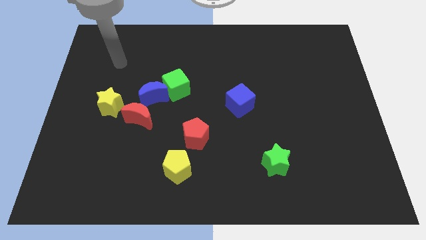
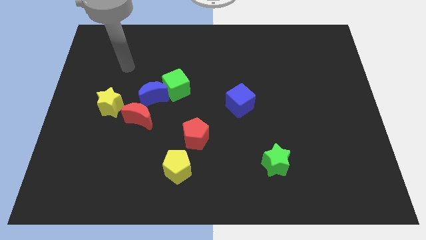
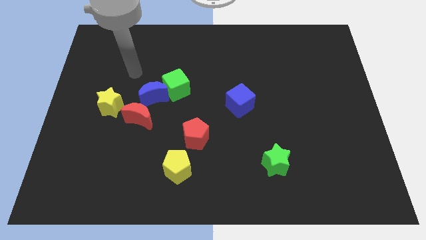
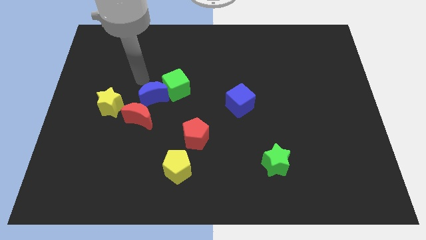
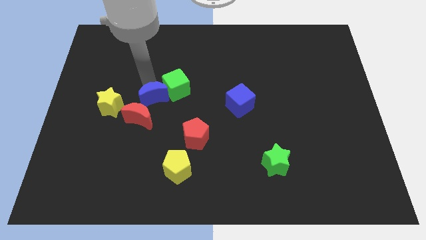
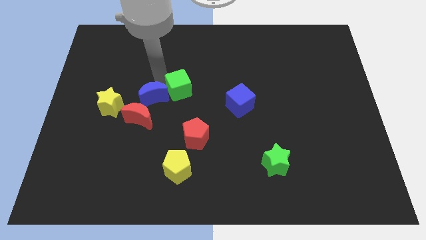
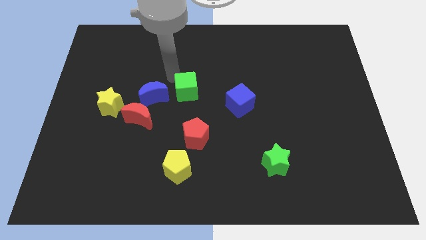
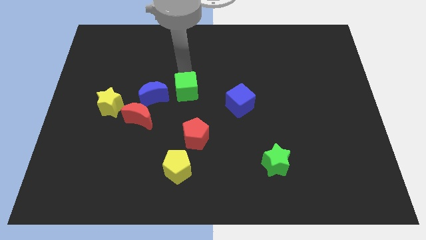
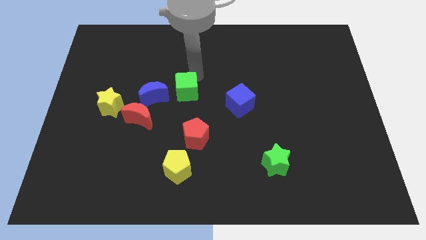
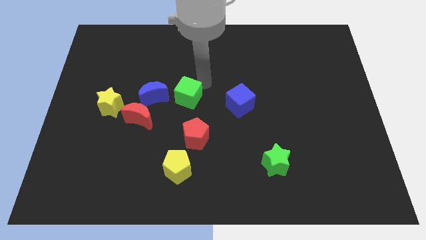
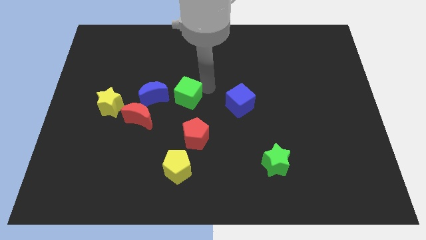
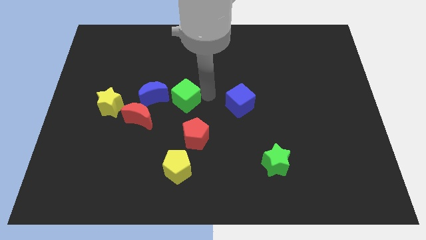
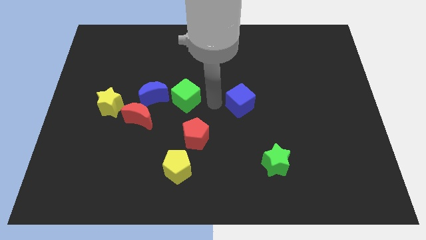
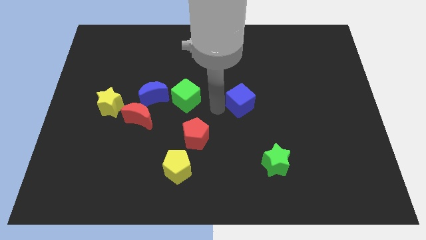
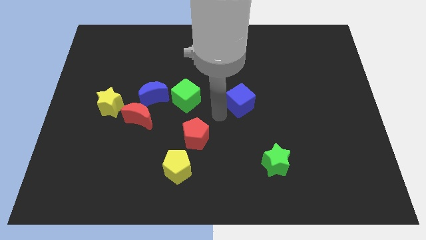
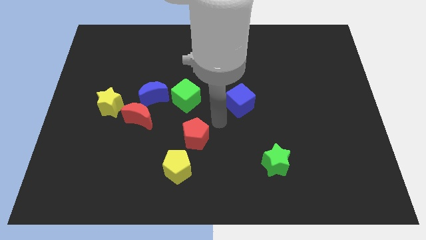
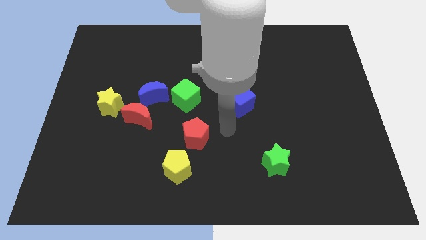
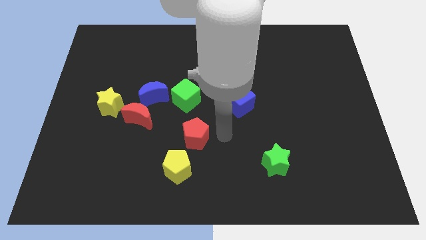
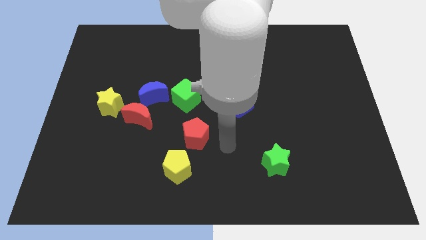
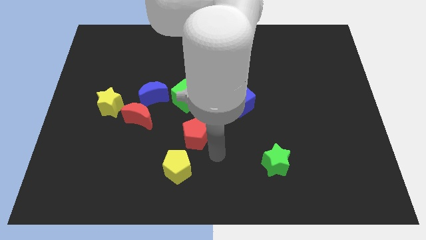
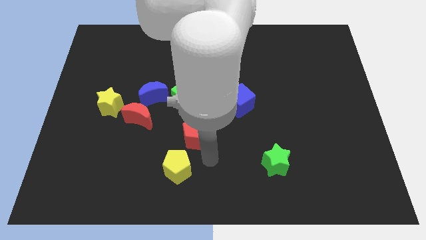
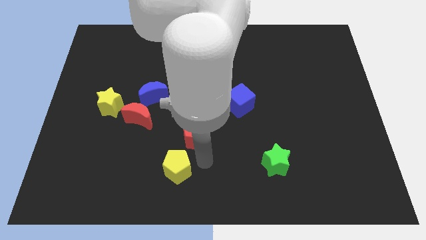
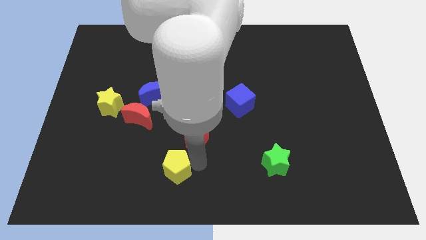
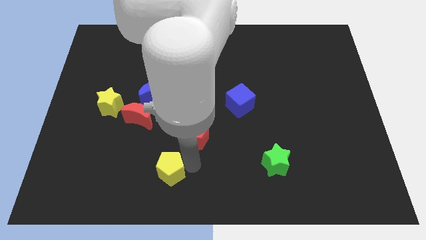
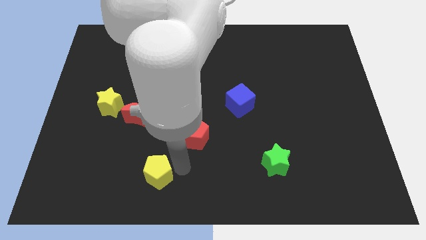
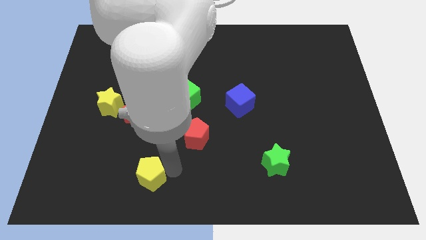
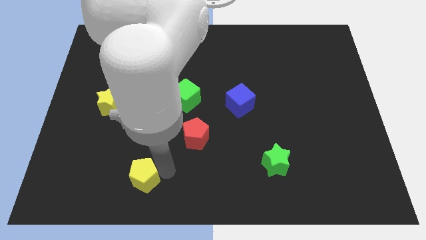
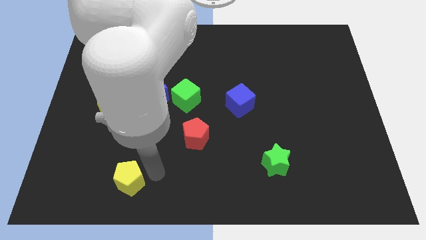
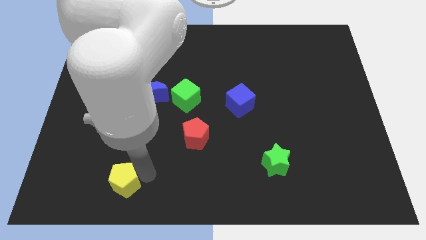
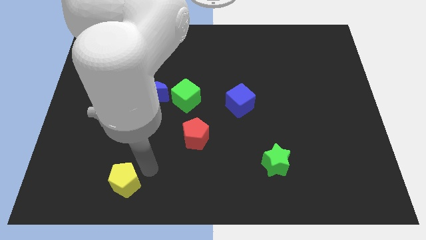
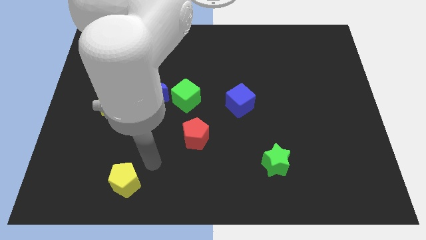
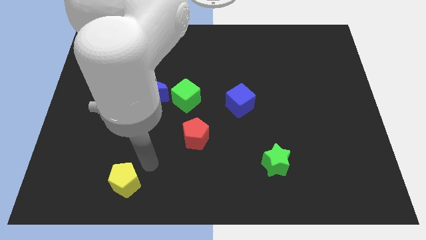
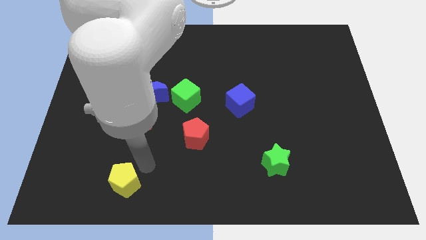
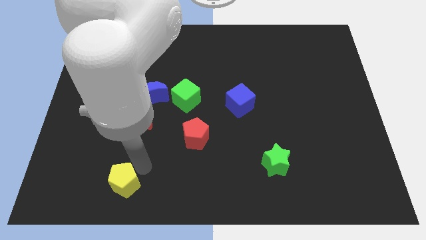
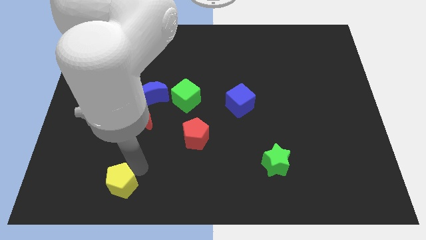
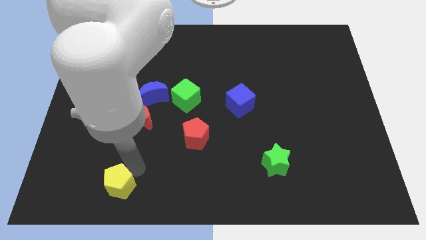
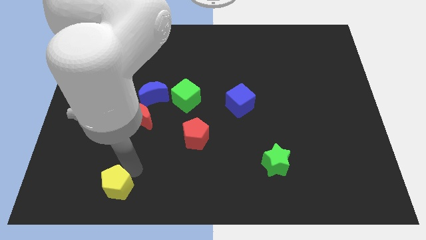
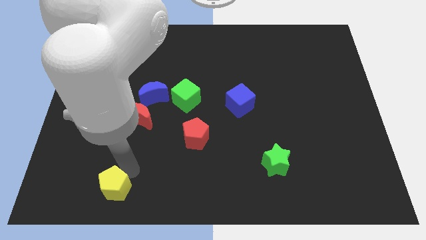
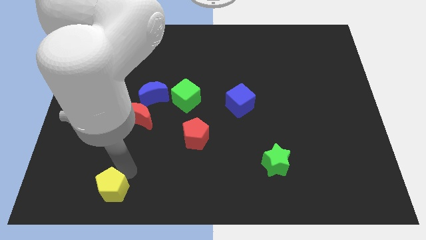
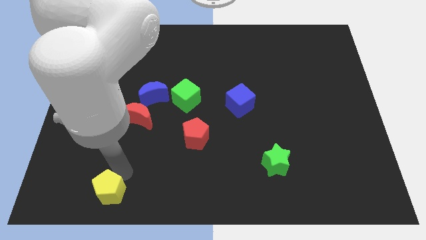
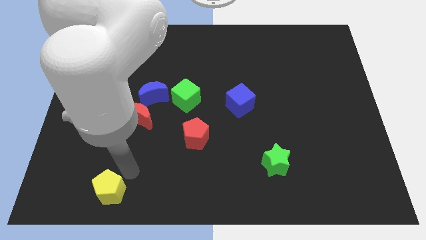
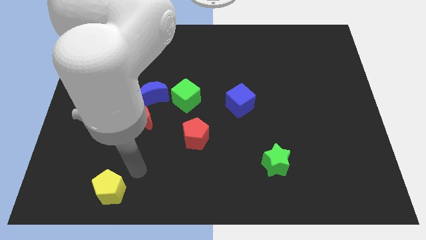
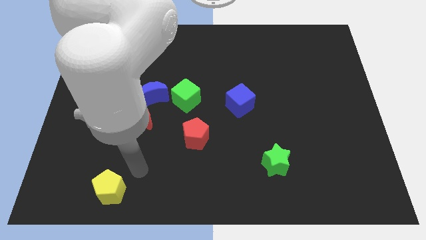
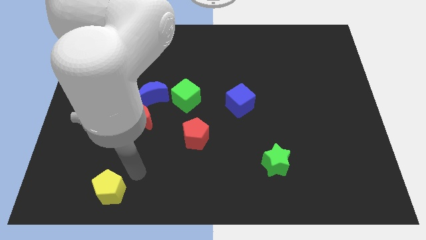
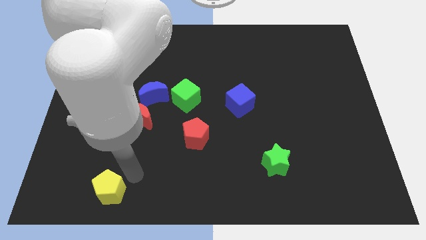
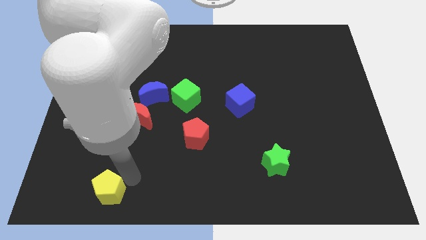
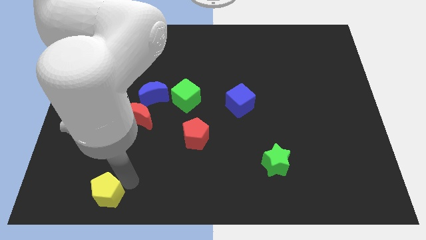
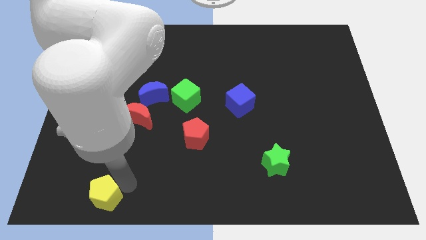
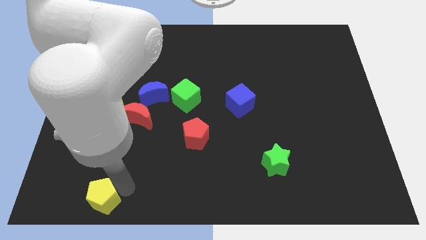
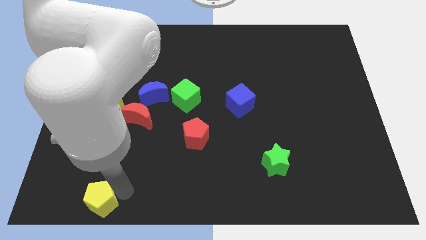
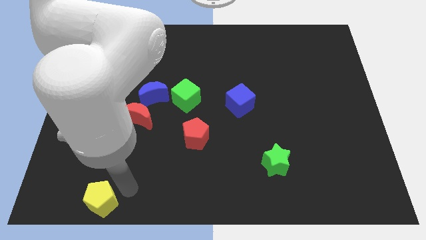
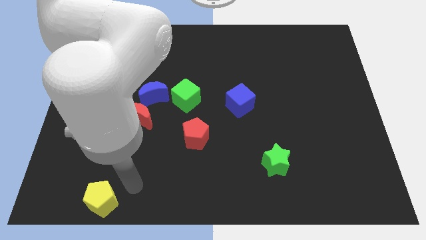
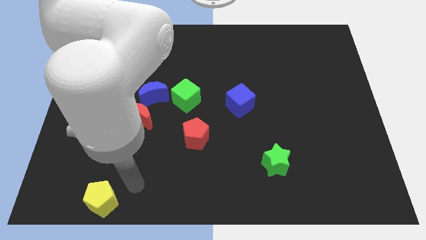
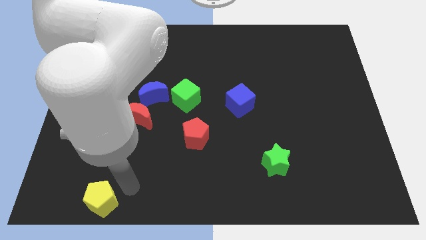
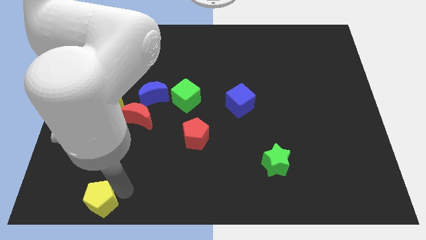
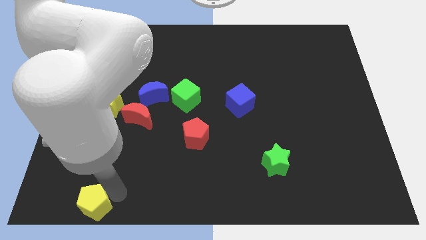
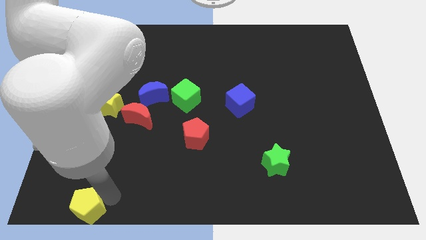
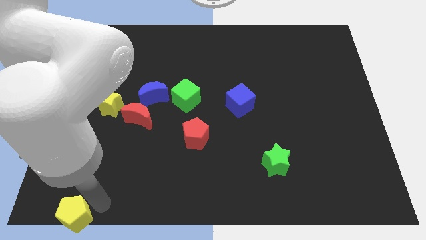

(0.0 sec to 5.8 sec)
slide the yellow pentagon to the bottom left corner

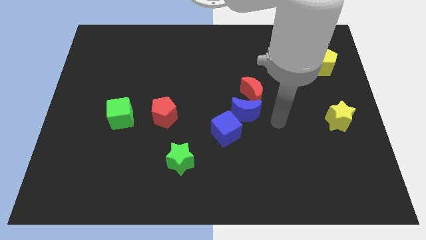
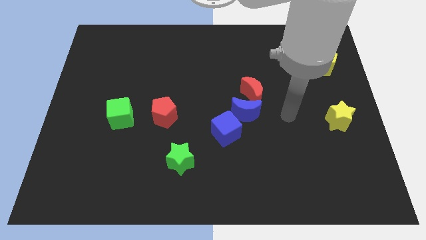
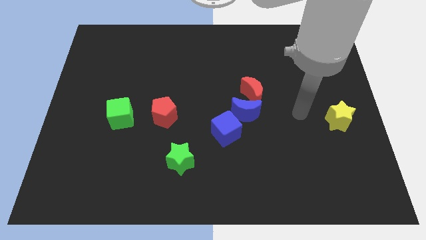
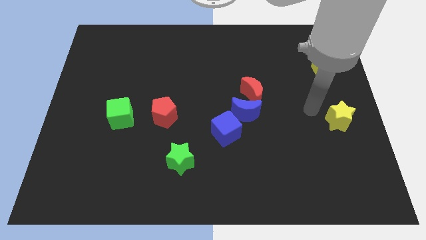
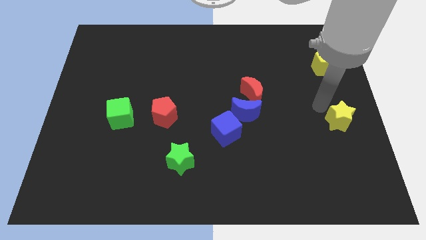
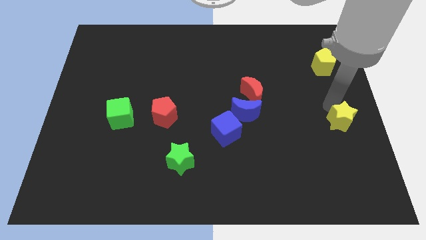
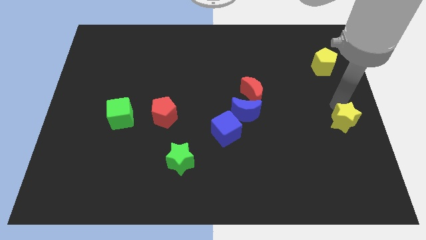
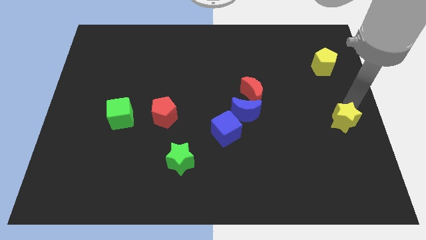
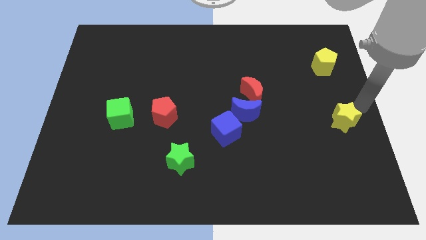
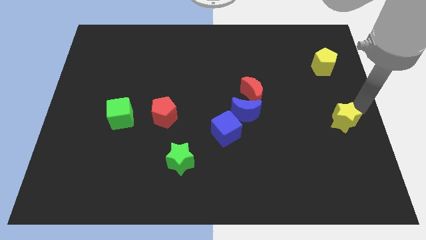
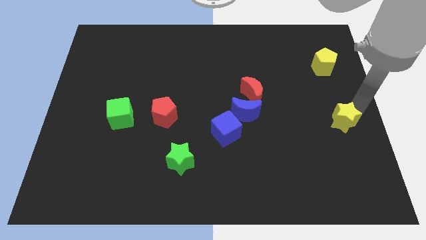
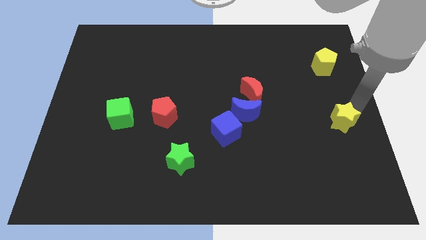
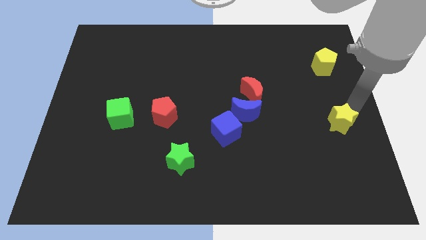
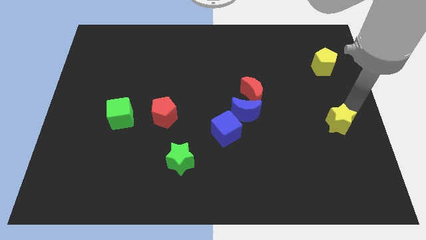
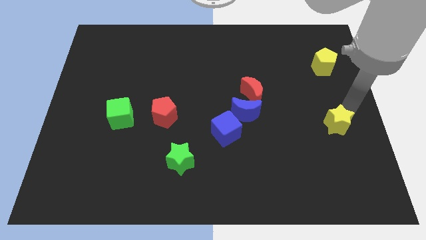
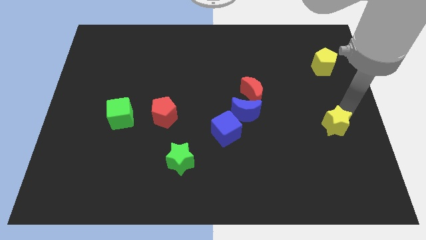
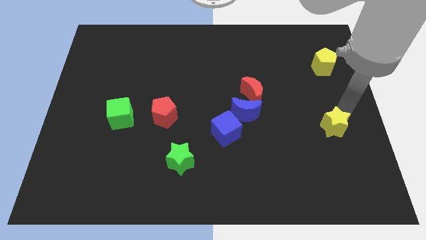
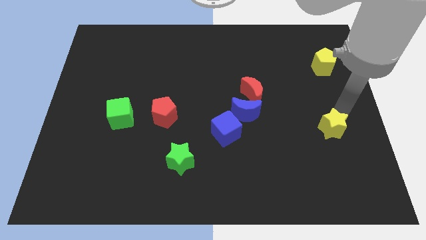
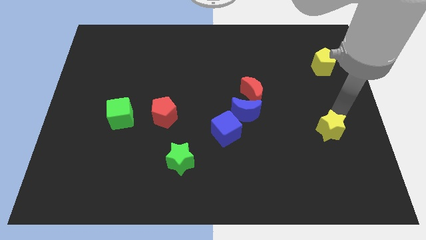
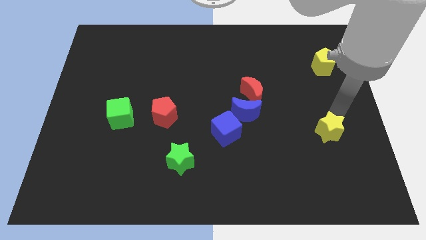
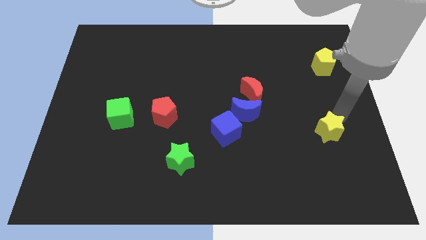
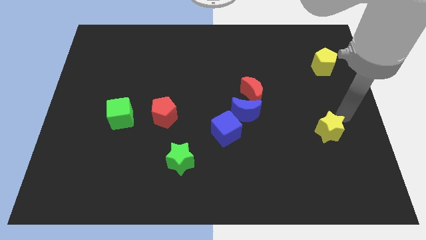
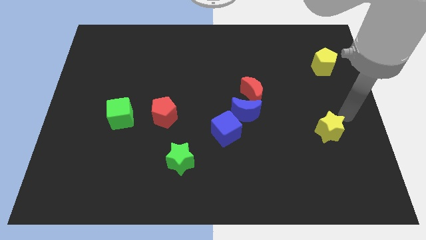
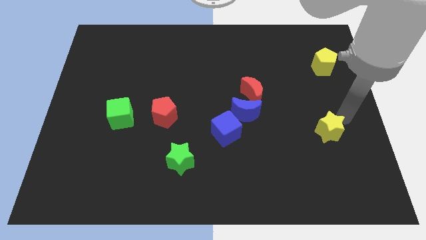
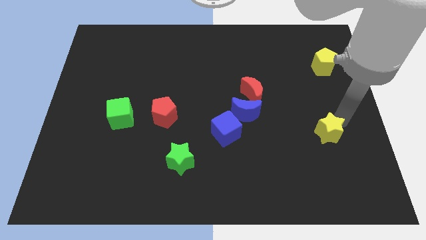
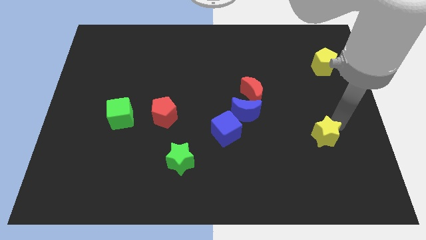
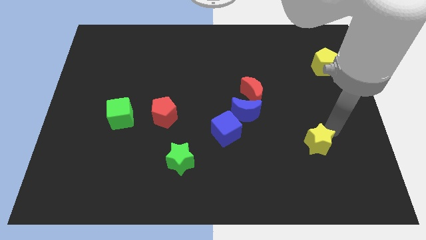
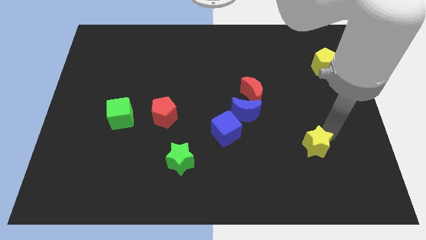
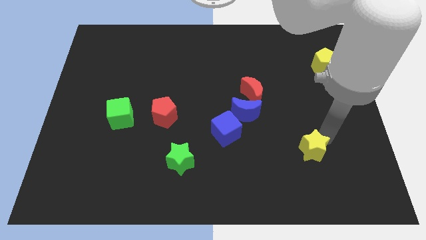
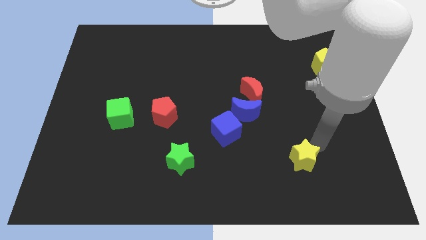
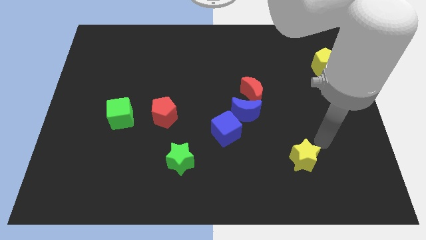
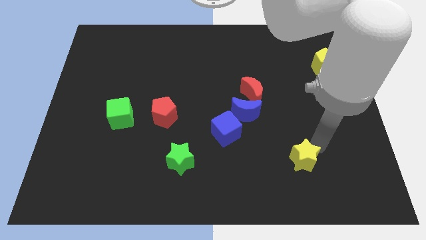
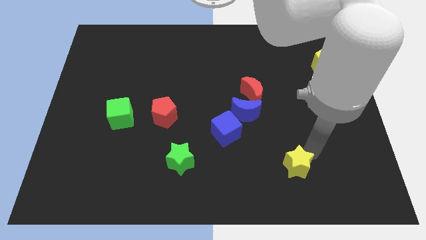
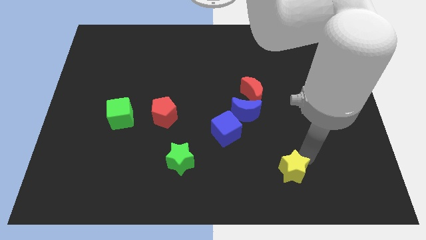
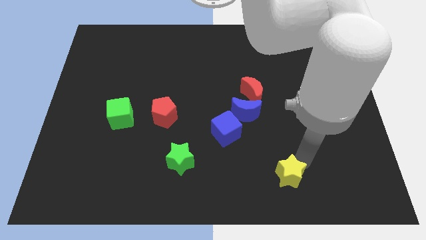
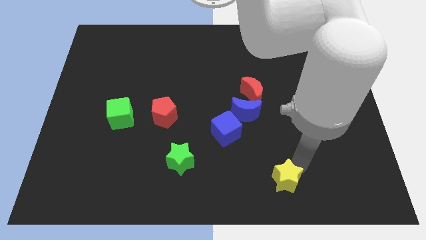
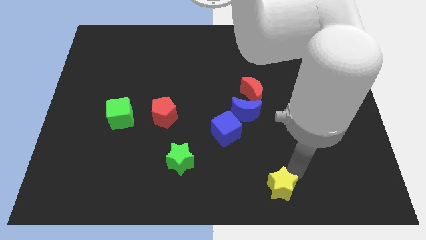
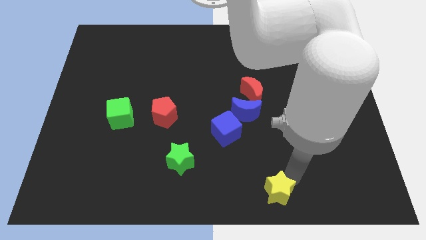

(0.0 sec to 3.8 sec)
move the yellow star to the bottom side
